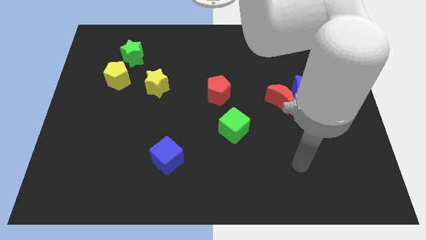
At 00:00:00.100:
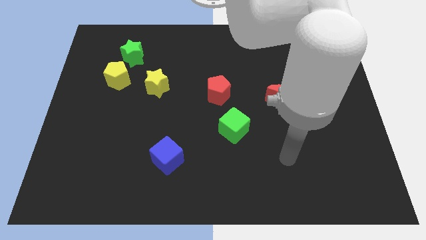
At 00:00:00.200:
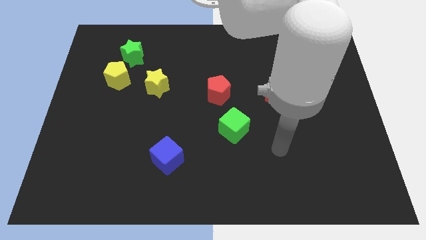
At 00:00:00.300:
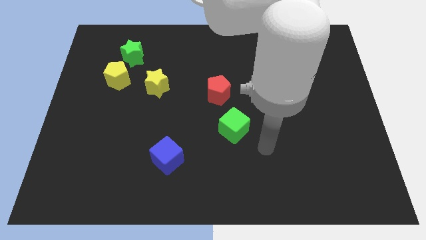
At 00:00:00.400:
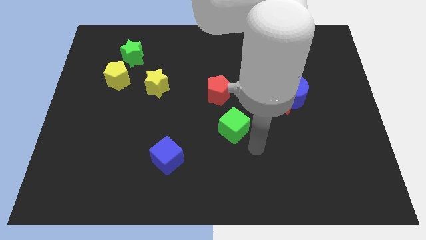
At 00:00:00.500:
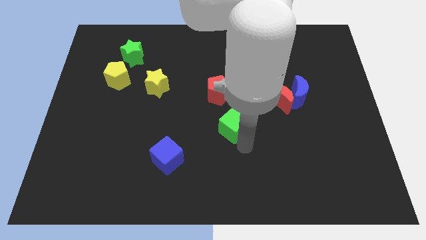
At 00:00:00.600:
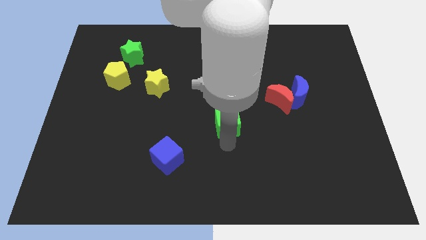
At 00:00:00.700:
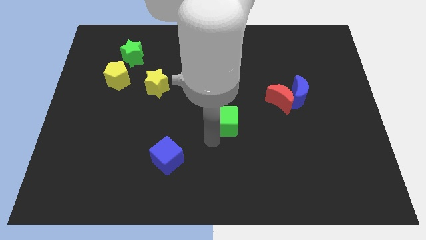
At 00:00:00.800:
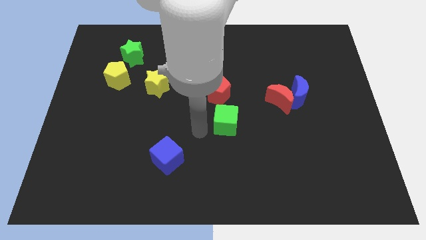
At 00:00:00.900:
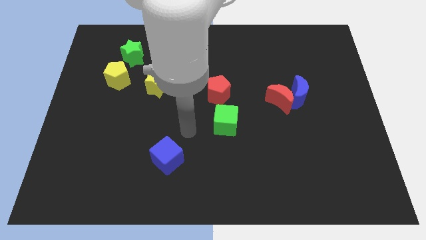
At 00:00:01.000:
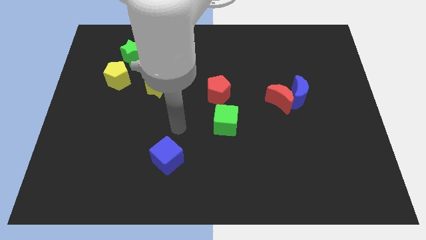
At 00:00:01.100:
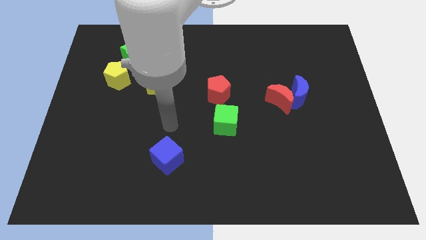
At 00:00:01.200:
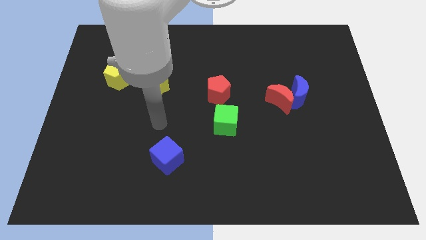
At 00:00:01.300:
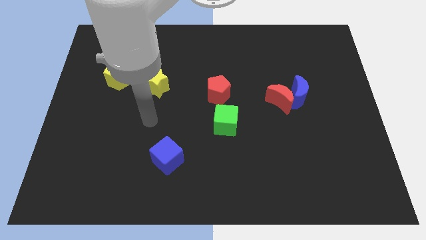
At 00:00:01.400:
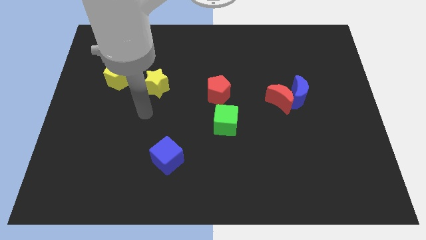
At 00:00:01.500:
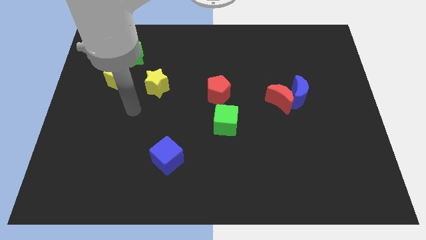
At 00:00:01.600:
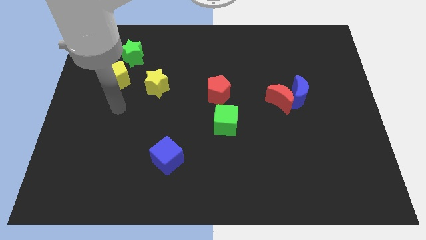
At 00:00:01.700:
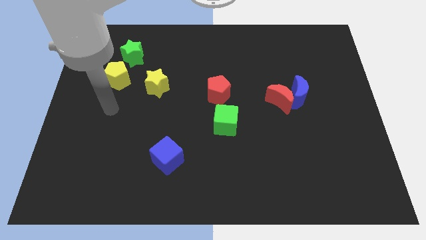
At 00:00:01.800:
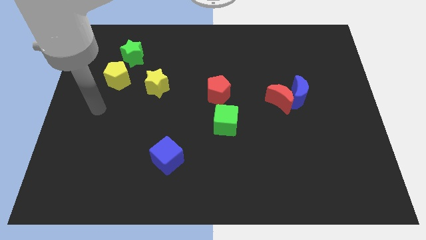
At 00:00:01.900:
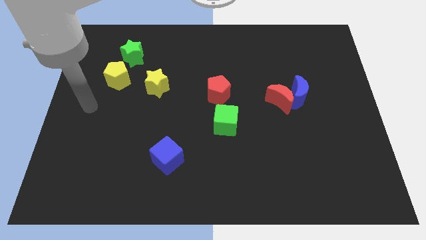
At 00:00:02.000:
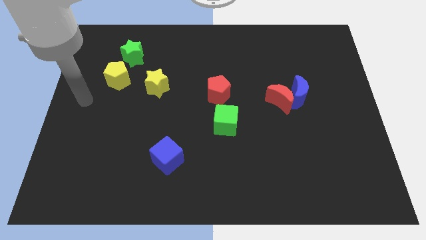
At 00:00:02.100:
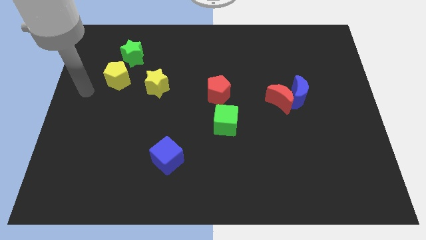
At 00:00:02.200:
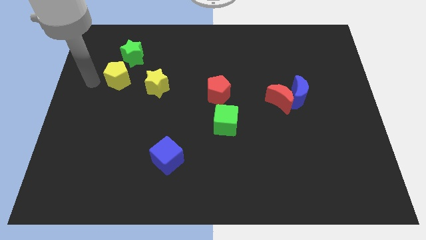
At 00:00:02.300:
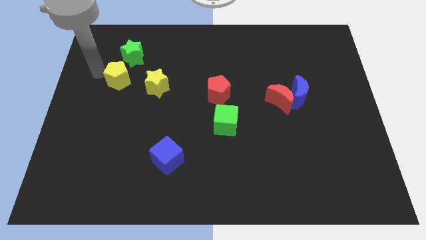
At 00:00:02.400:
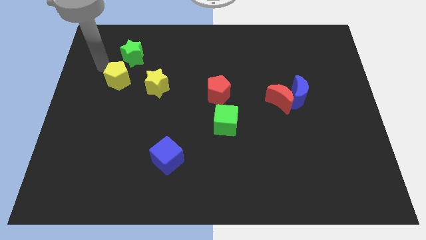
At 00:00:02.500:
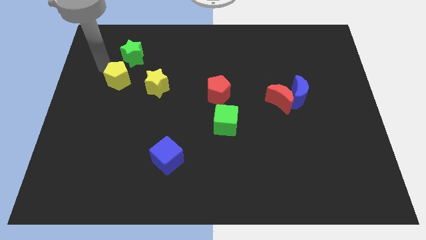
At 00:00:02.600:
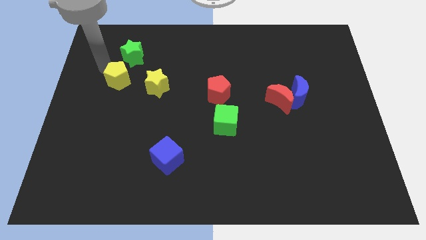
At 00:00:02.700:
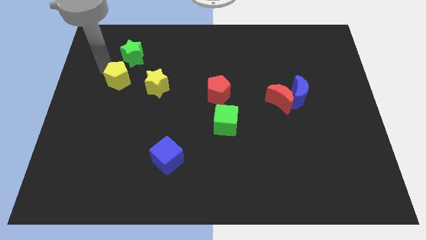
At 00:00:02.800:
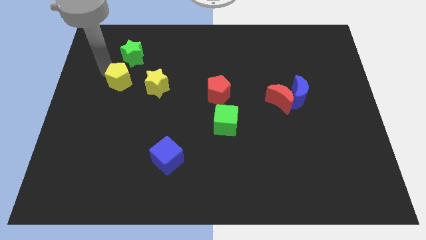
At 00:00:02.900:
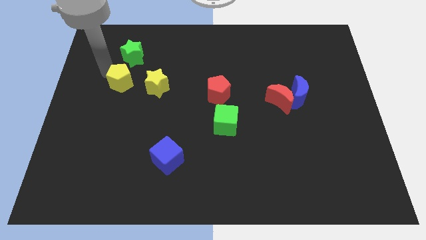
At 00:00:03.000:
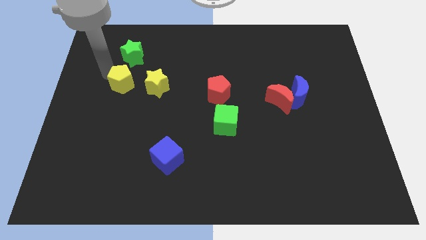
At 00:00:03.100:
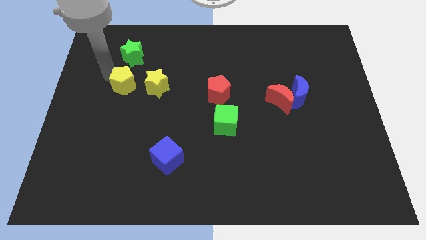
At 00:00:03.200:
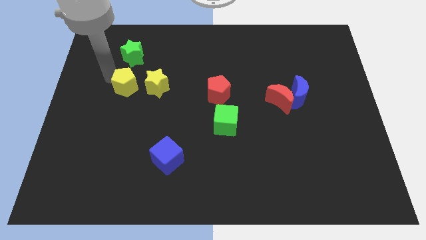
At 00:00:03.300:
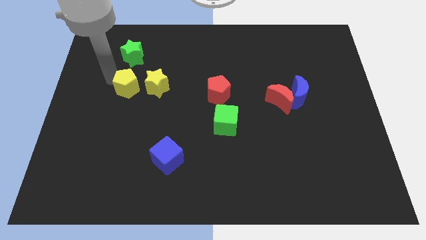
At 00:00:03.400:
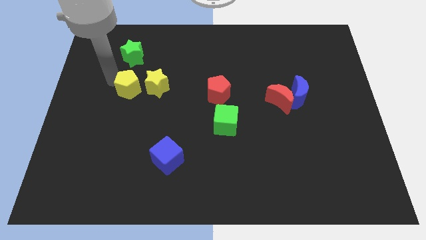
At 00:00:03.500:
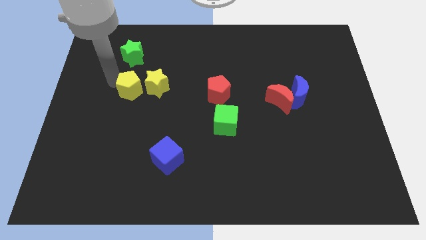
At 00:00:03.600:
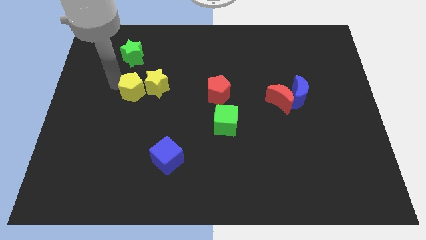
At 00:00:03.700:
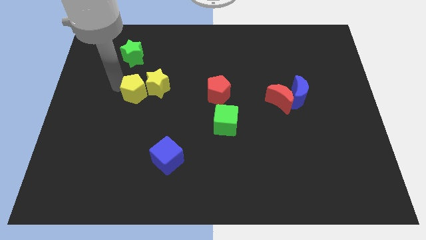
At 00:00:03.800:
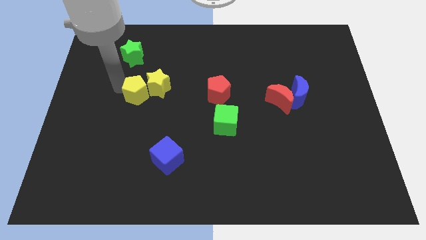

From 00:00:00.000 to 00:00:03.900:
slightly push the yellow pentagon downwards and right

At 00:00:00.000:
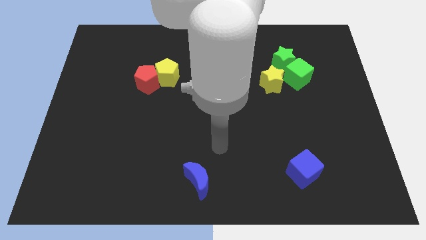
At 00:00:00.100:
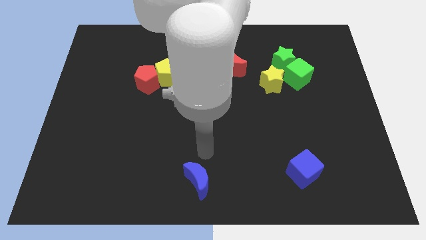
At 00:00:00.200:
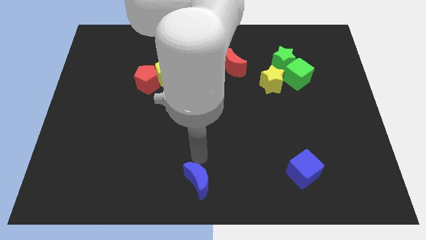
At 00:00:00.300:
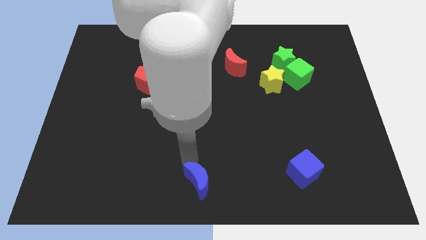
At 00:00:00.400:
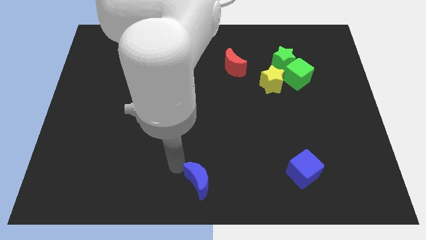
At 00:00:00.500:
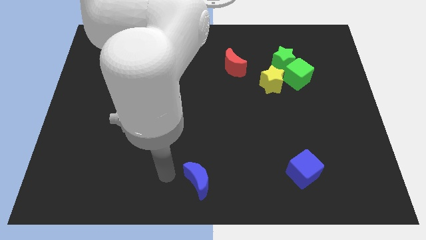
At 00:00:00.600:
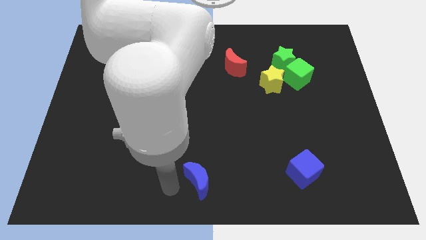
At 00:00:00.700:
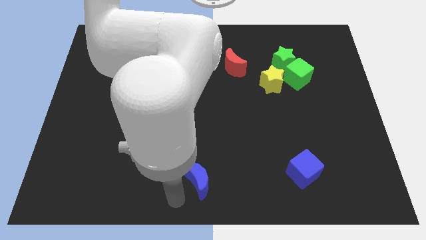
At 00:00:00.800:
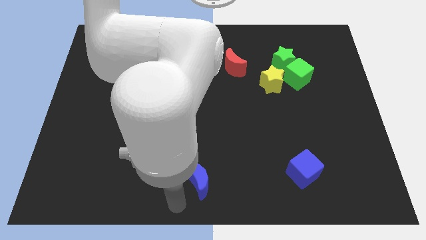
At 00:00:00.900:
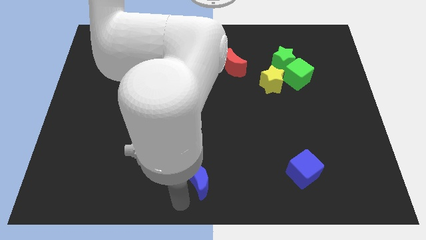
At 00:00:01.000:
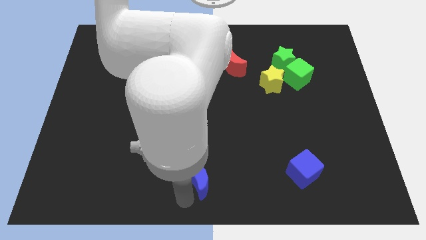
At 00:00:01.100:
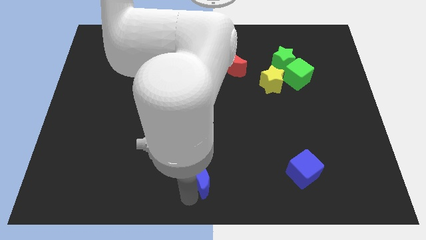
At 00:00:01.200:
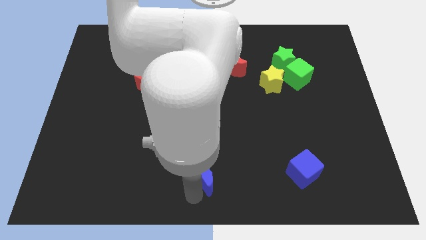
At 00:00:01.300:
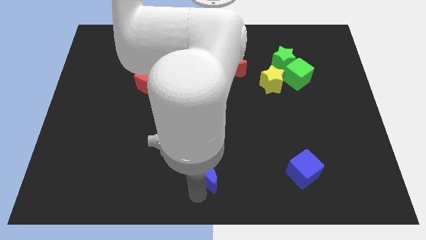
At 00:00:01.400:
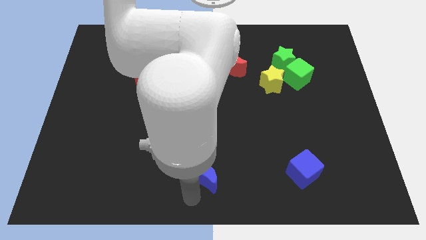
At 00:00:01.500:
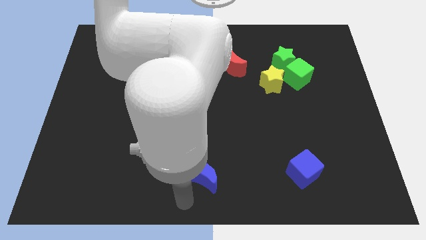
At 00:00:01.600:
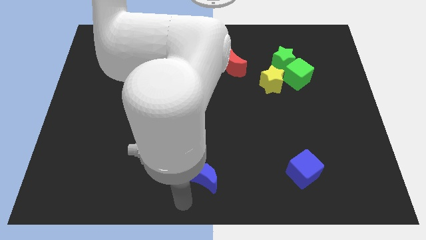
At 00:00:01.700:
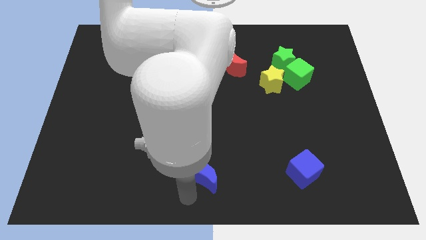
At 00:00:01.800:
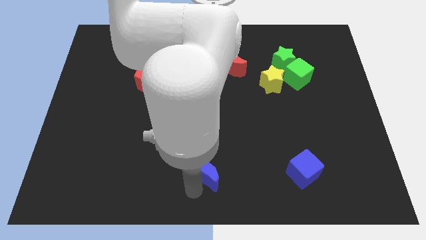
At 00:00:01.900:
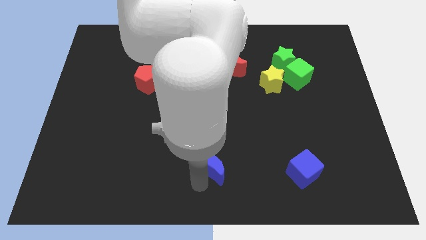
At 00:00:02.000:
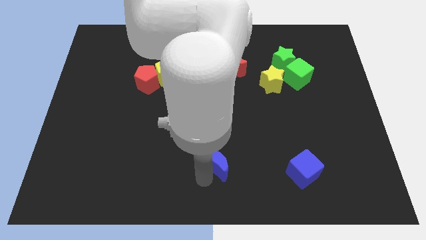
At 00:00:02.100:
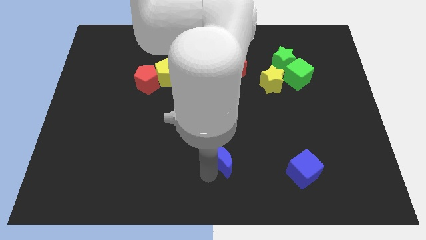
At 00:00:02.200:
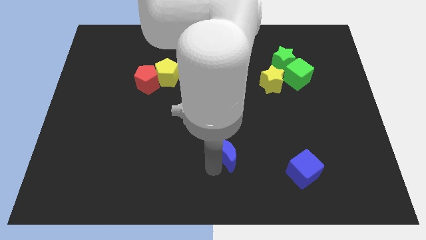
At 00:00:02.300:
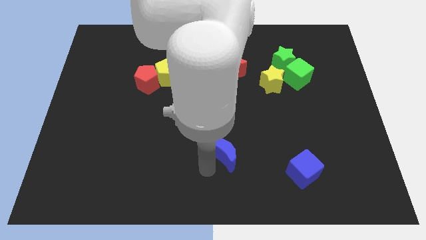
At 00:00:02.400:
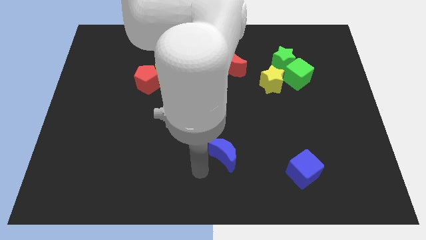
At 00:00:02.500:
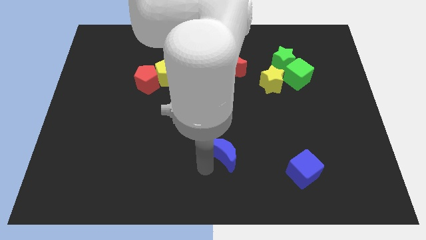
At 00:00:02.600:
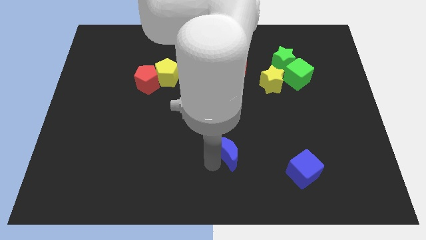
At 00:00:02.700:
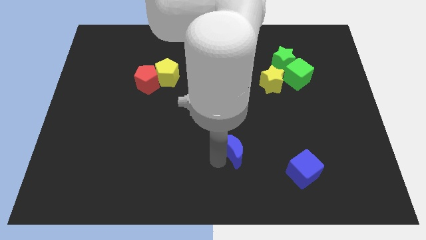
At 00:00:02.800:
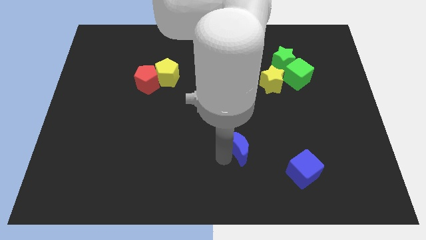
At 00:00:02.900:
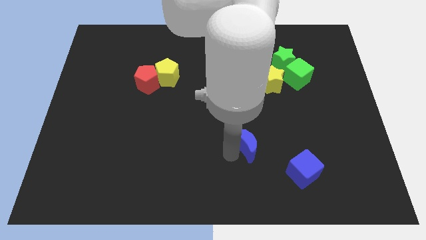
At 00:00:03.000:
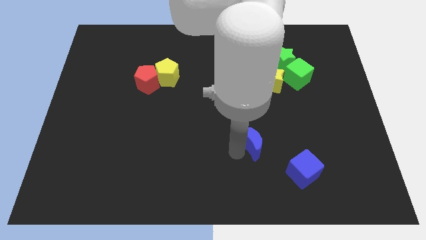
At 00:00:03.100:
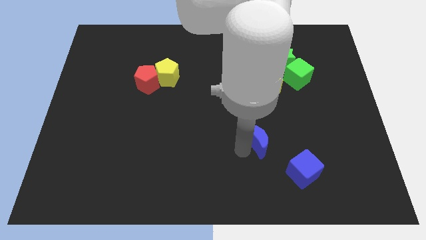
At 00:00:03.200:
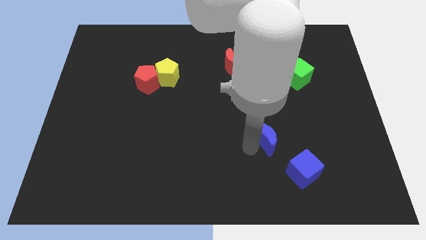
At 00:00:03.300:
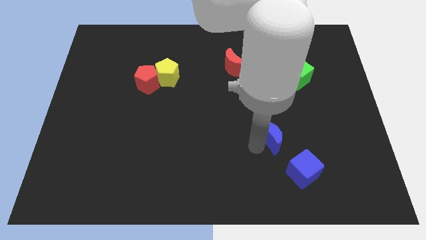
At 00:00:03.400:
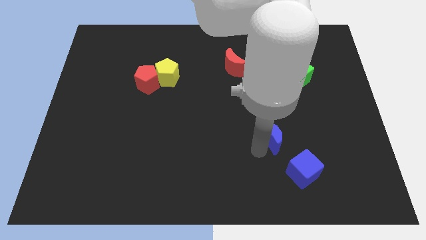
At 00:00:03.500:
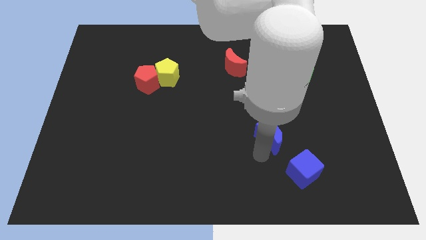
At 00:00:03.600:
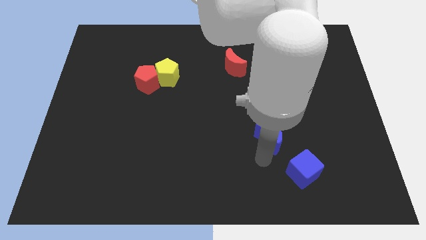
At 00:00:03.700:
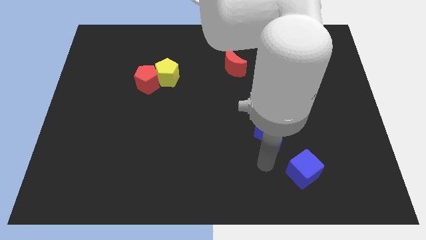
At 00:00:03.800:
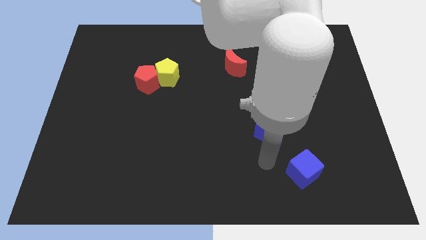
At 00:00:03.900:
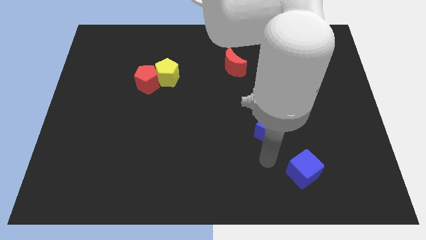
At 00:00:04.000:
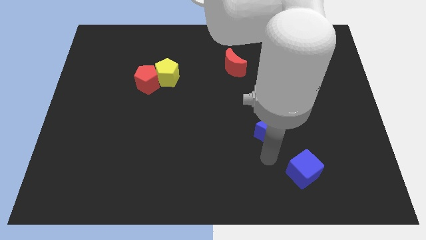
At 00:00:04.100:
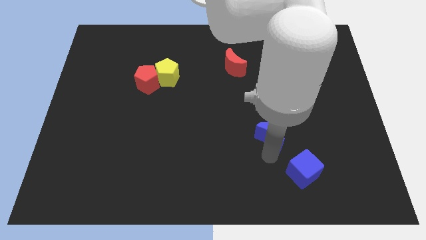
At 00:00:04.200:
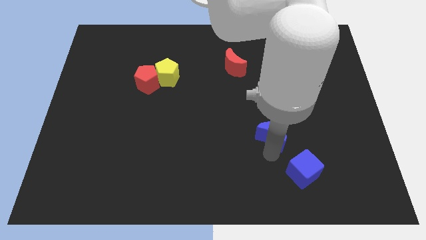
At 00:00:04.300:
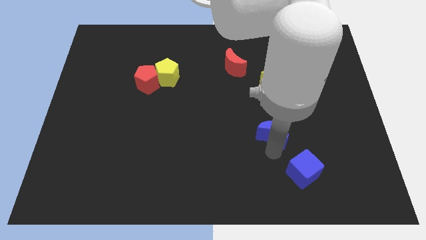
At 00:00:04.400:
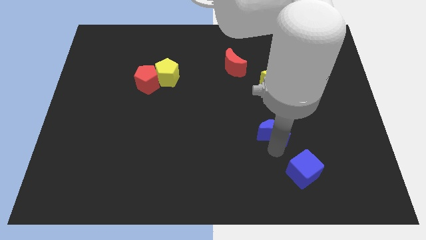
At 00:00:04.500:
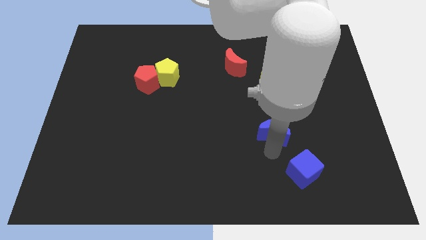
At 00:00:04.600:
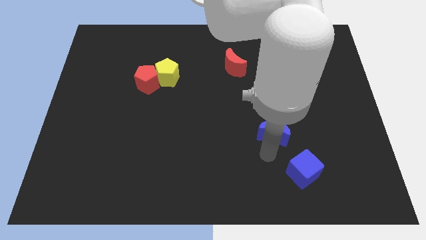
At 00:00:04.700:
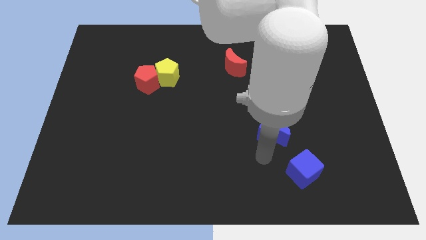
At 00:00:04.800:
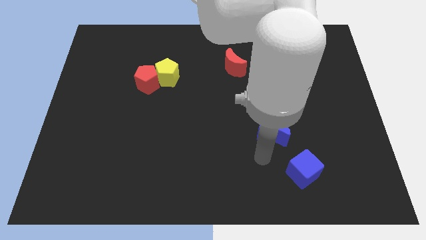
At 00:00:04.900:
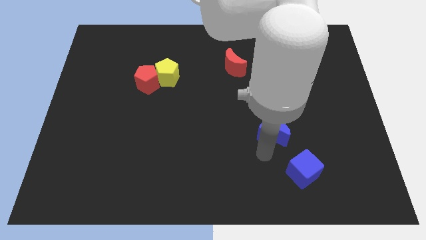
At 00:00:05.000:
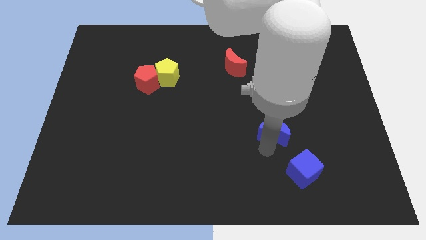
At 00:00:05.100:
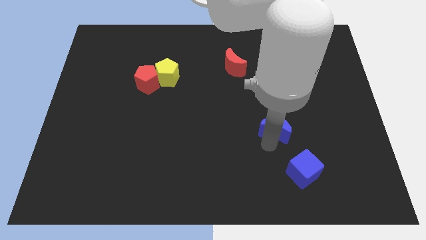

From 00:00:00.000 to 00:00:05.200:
slide the blue moon diagonally up and to the right
